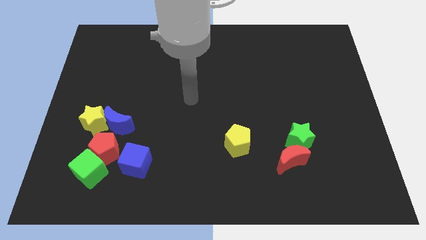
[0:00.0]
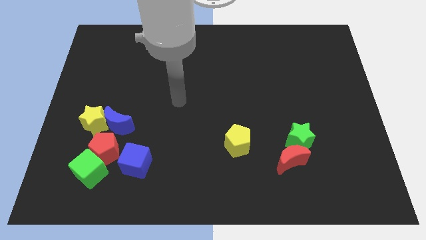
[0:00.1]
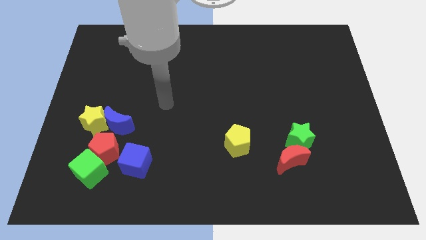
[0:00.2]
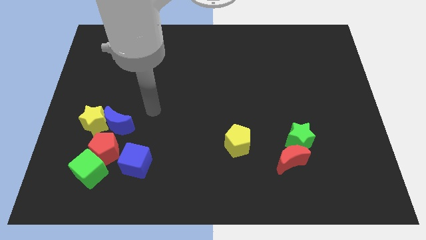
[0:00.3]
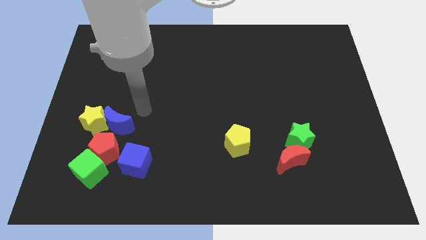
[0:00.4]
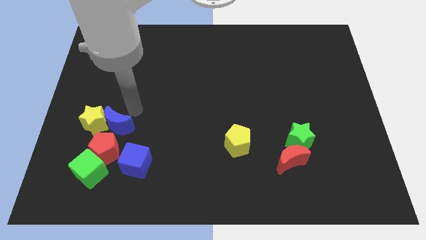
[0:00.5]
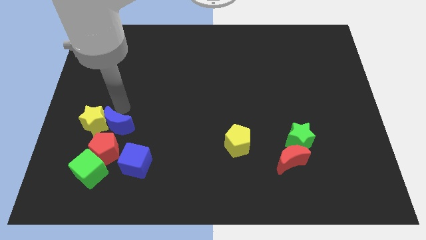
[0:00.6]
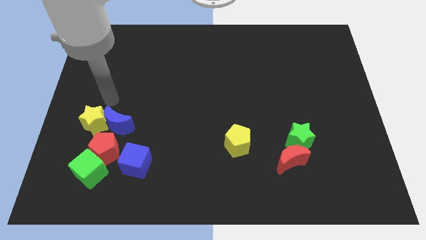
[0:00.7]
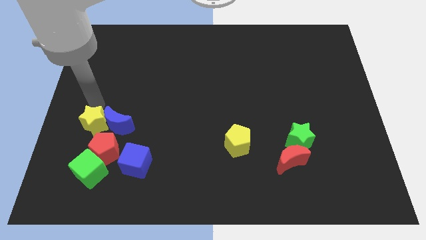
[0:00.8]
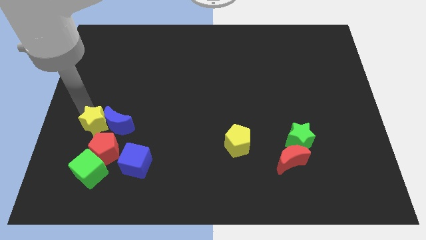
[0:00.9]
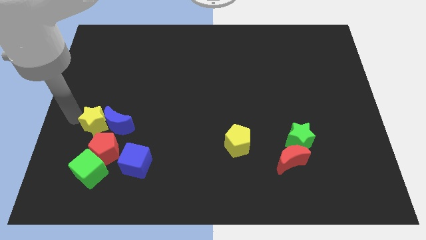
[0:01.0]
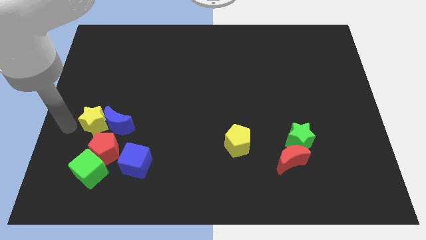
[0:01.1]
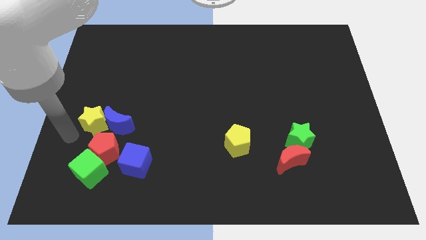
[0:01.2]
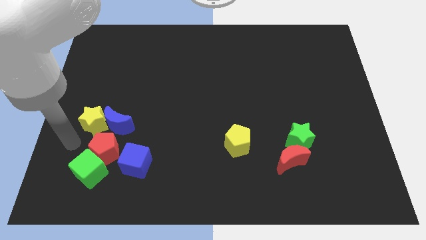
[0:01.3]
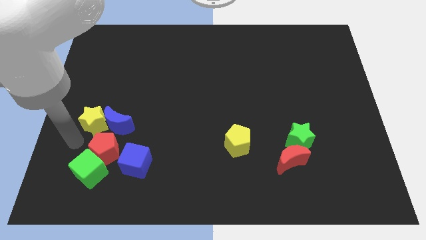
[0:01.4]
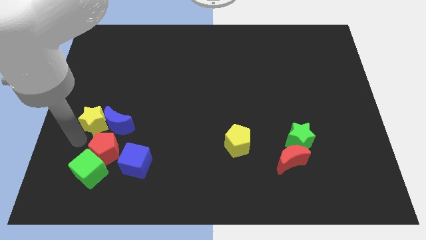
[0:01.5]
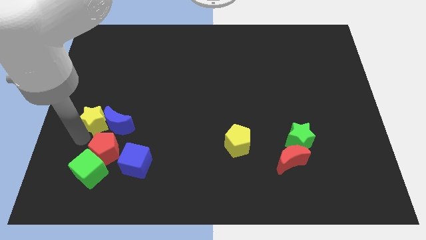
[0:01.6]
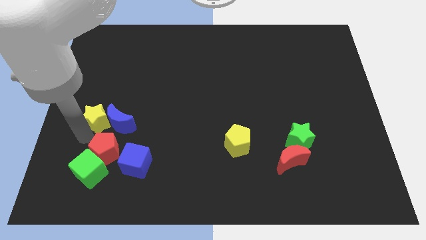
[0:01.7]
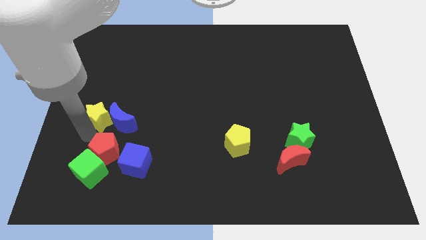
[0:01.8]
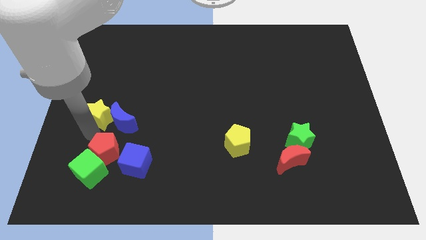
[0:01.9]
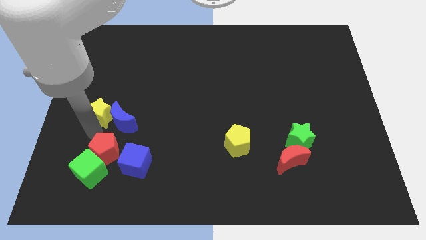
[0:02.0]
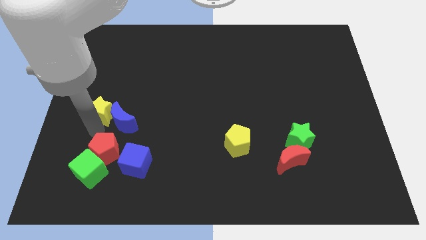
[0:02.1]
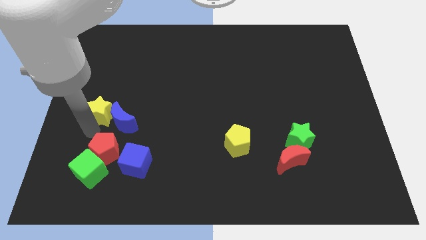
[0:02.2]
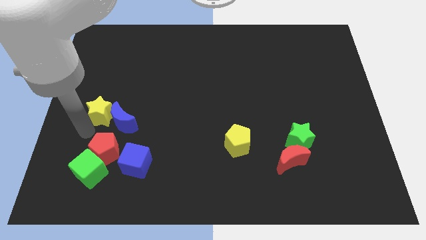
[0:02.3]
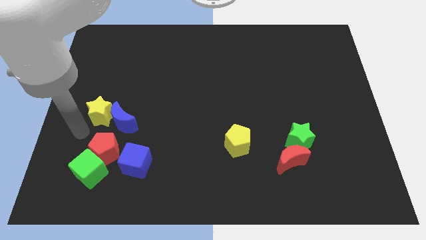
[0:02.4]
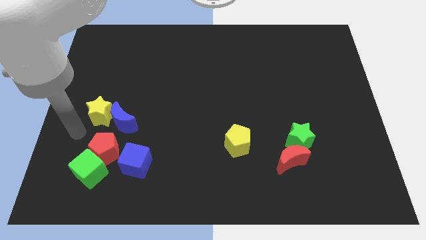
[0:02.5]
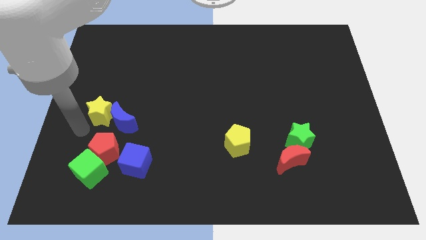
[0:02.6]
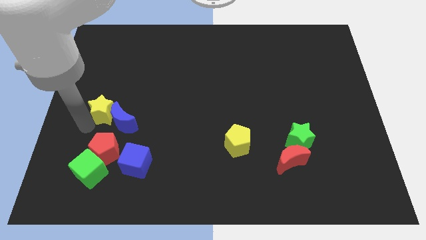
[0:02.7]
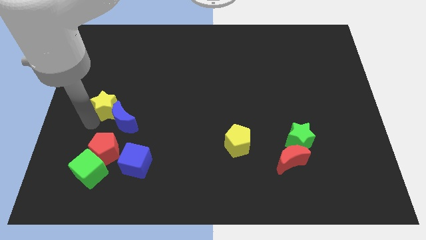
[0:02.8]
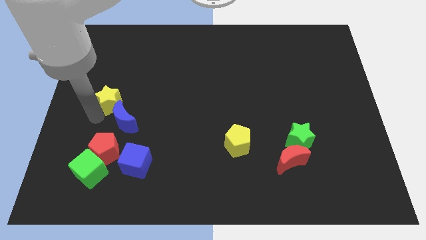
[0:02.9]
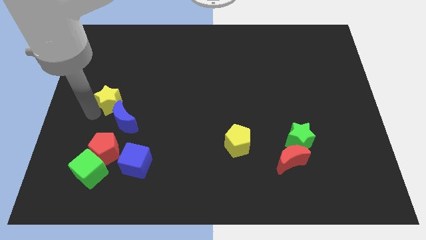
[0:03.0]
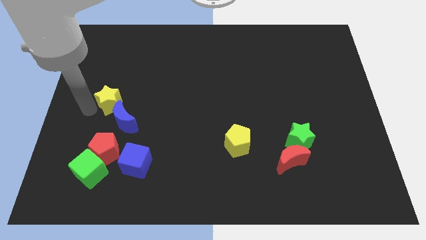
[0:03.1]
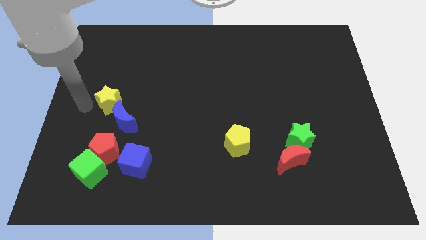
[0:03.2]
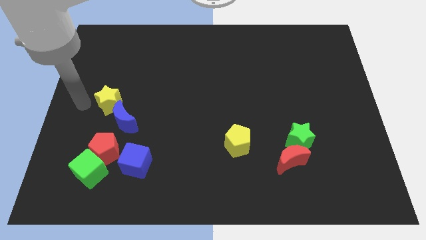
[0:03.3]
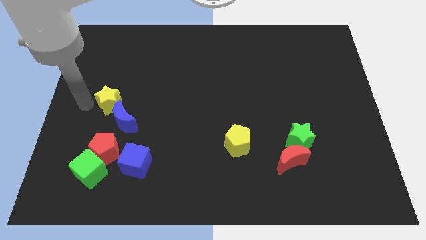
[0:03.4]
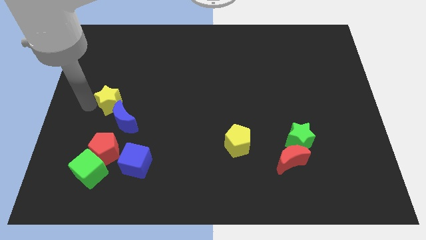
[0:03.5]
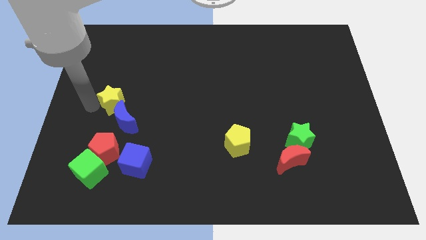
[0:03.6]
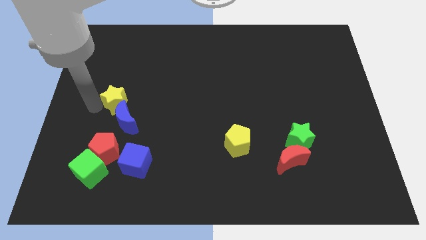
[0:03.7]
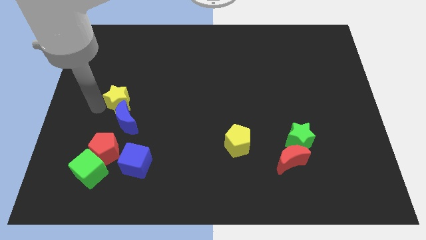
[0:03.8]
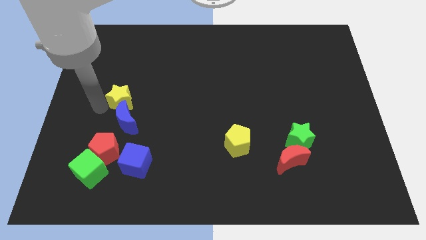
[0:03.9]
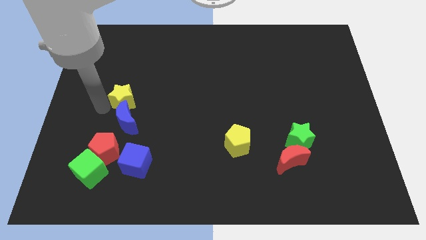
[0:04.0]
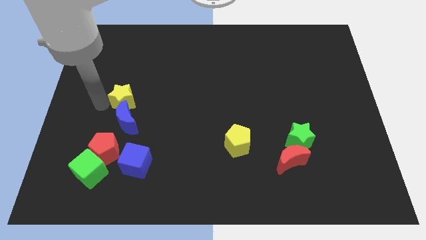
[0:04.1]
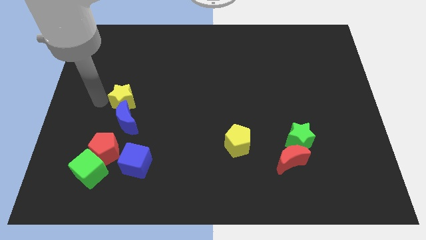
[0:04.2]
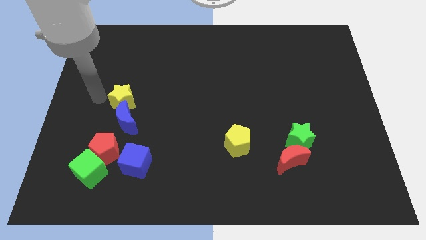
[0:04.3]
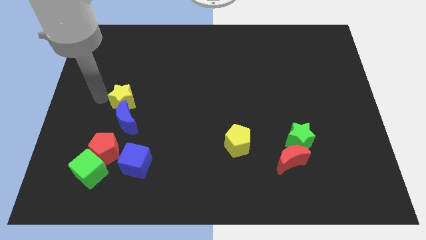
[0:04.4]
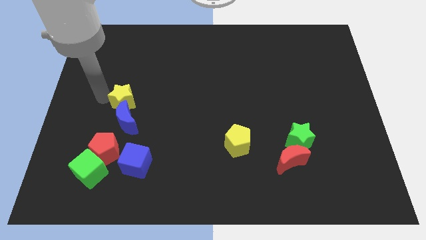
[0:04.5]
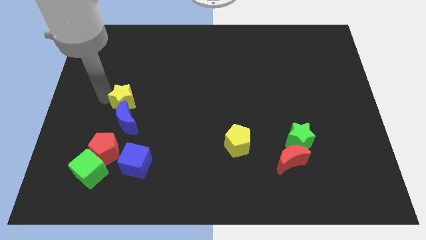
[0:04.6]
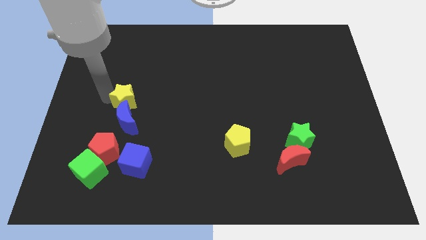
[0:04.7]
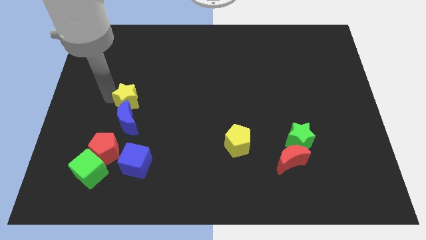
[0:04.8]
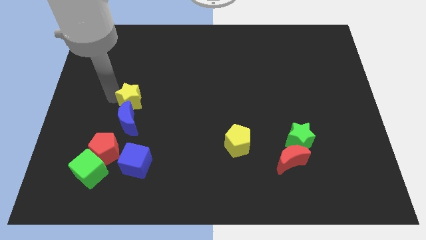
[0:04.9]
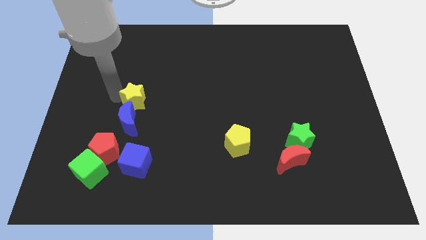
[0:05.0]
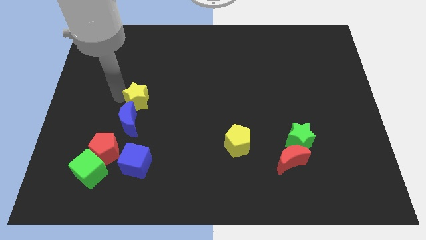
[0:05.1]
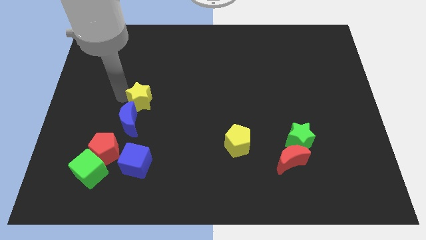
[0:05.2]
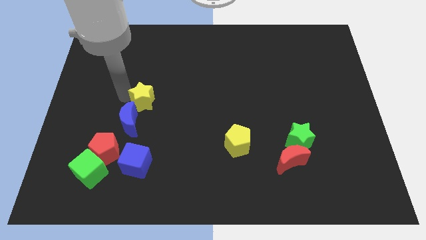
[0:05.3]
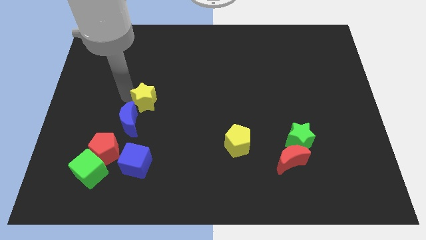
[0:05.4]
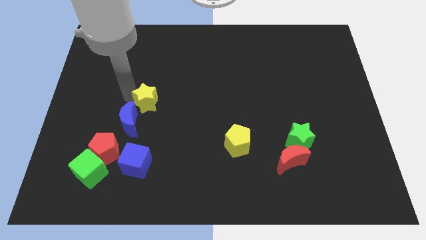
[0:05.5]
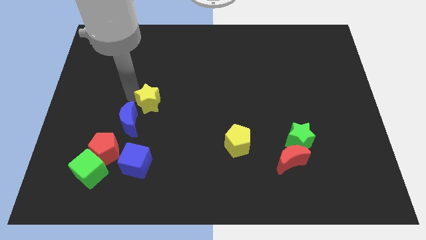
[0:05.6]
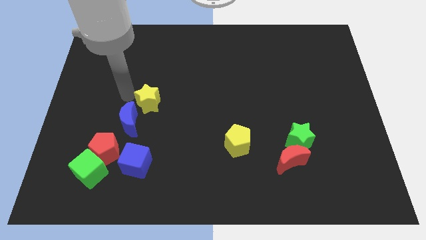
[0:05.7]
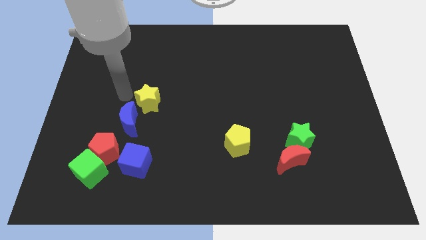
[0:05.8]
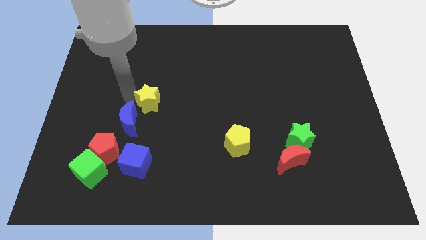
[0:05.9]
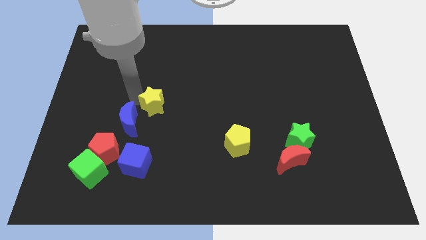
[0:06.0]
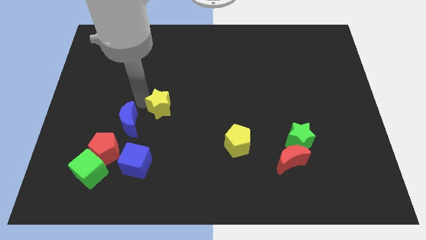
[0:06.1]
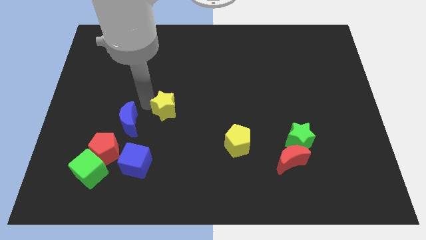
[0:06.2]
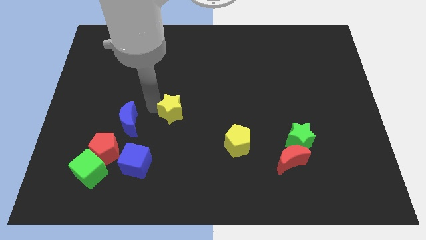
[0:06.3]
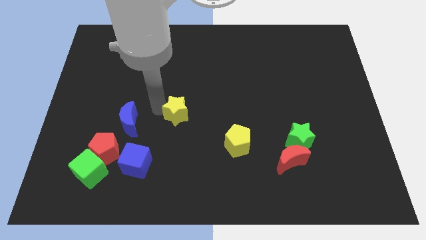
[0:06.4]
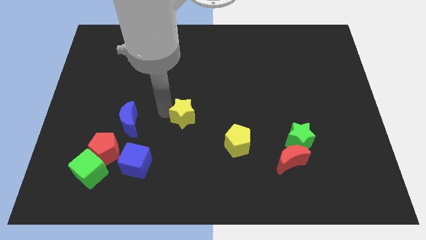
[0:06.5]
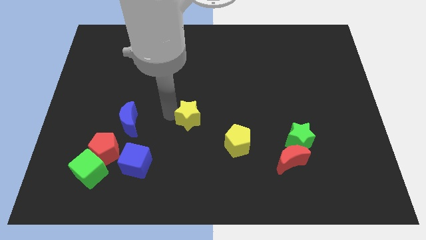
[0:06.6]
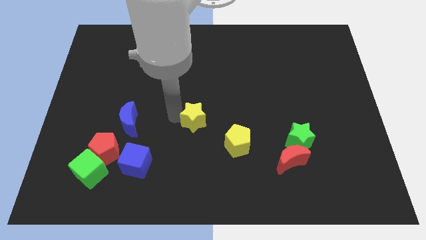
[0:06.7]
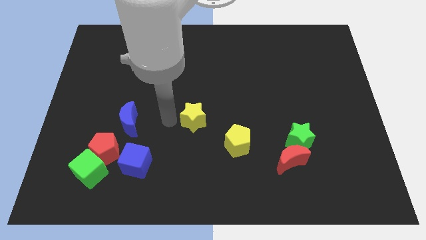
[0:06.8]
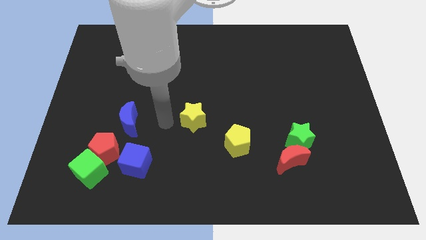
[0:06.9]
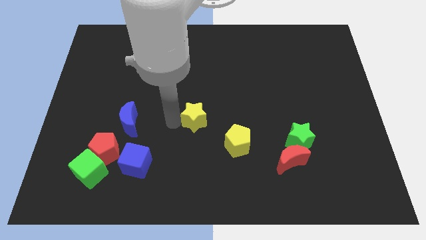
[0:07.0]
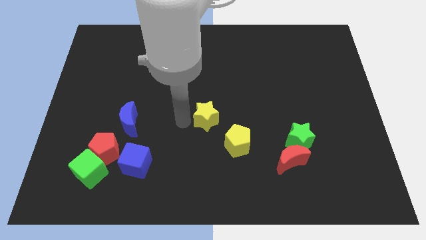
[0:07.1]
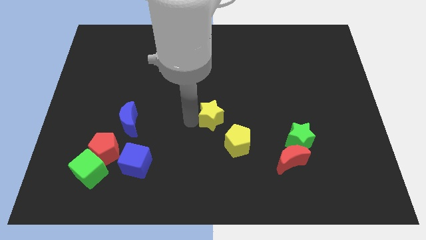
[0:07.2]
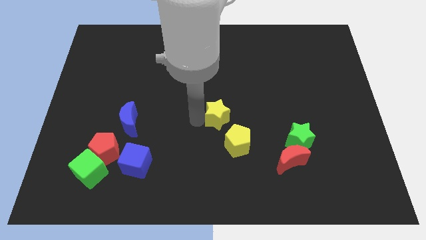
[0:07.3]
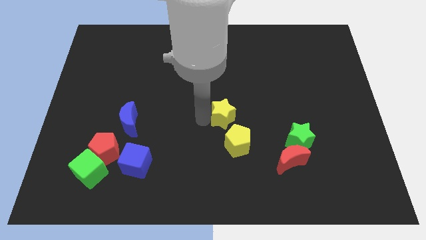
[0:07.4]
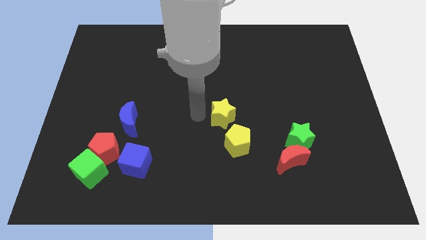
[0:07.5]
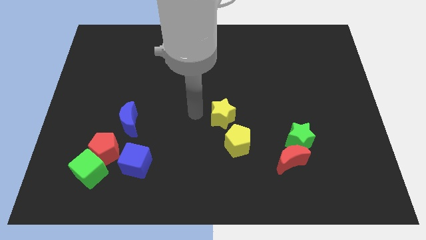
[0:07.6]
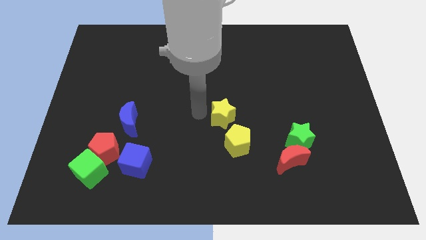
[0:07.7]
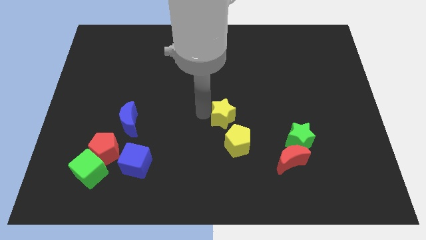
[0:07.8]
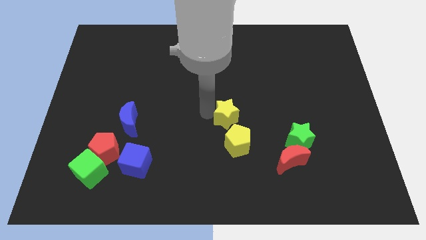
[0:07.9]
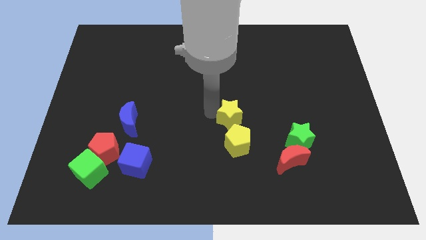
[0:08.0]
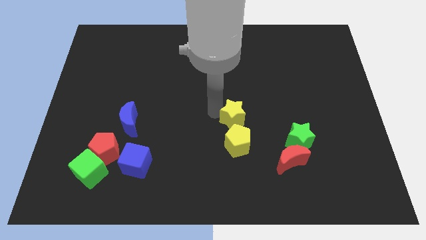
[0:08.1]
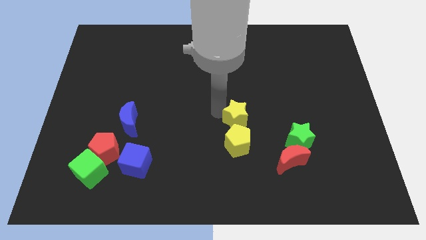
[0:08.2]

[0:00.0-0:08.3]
put the yellow star to the top right side of the yellow pentagon
